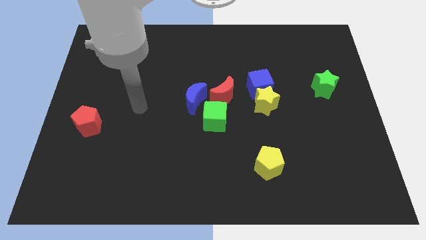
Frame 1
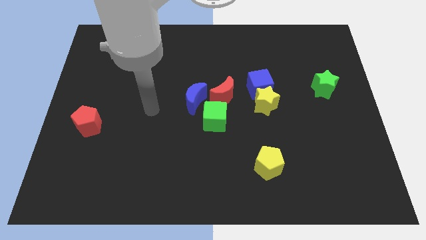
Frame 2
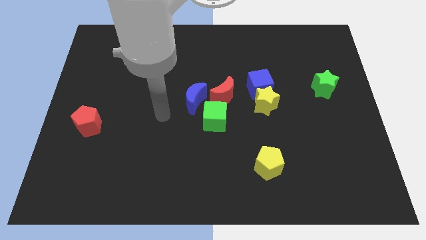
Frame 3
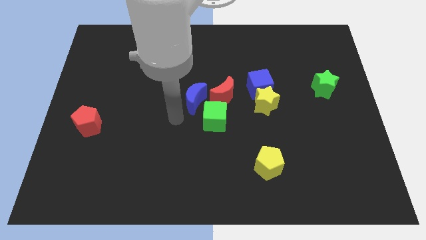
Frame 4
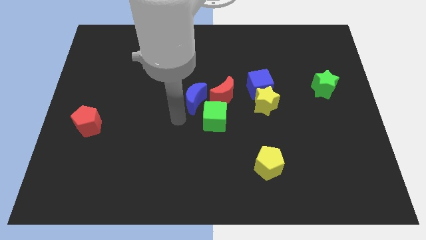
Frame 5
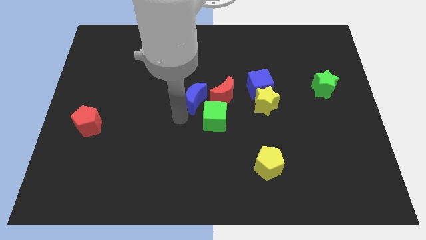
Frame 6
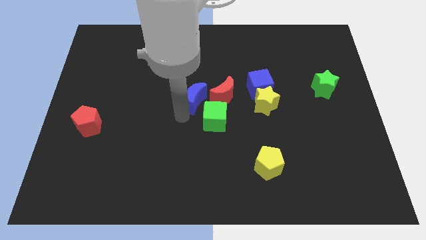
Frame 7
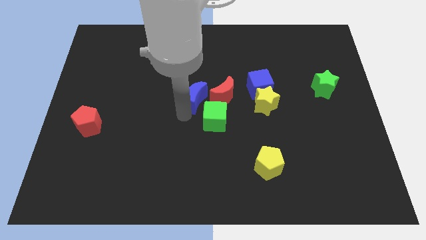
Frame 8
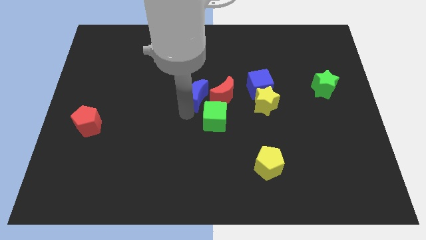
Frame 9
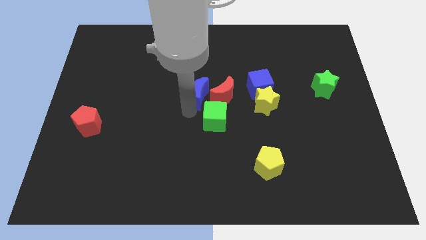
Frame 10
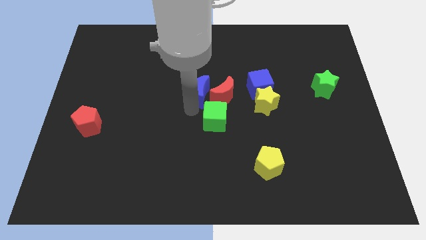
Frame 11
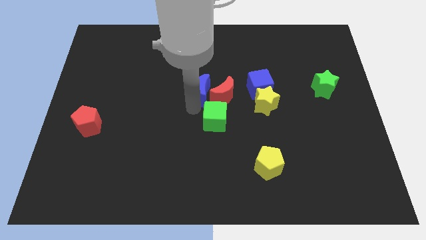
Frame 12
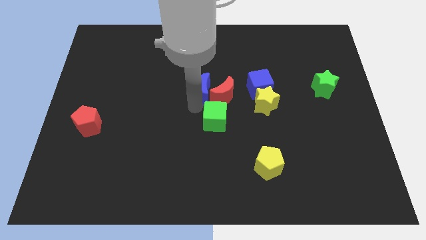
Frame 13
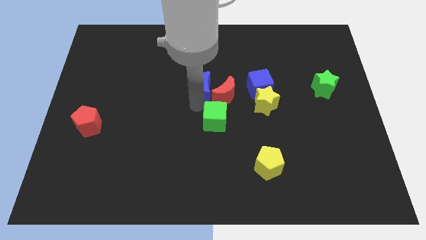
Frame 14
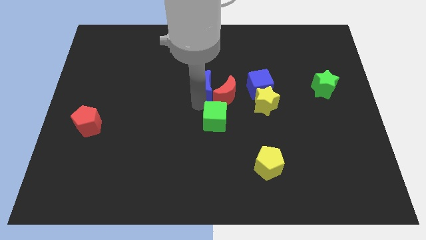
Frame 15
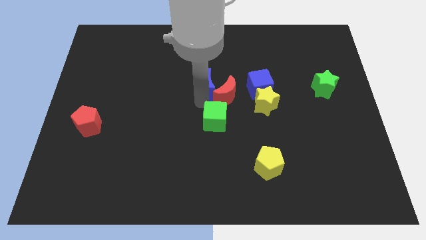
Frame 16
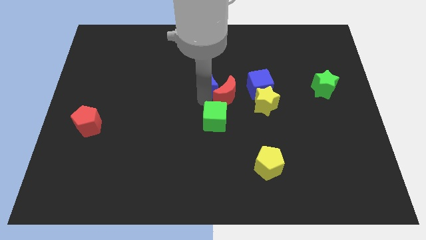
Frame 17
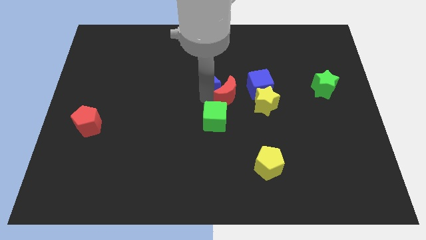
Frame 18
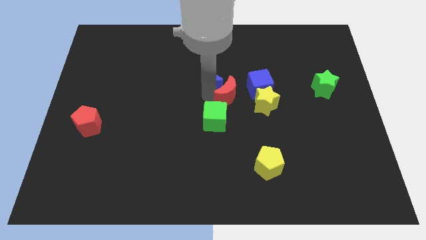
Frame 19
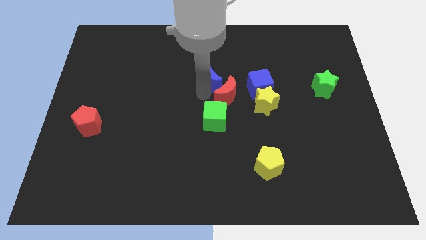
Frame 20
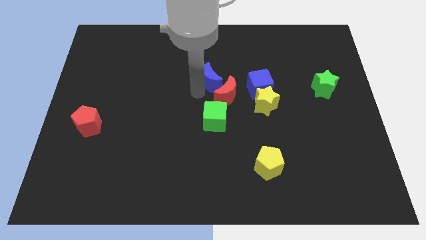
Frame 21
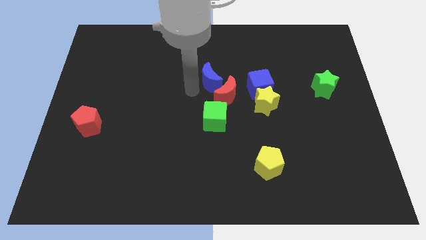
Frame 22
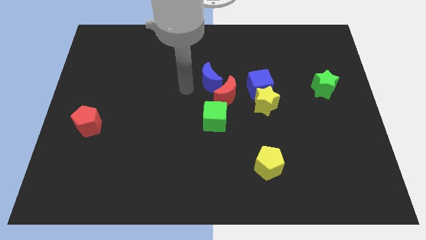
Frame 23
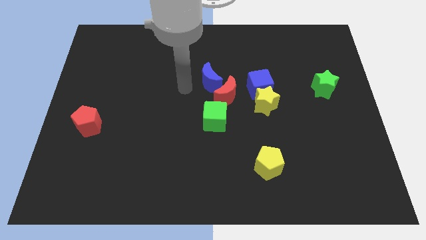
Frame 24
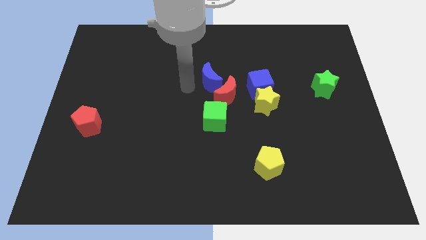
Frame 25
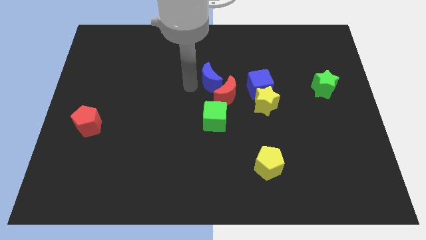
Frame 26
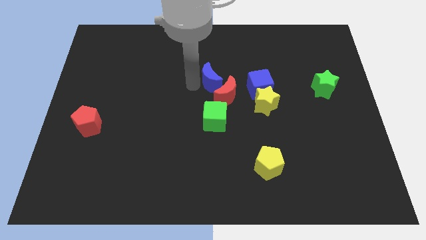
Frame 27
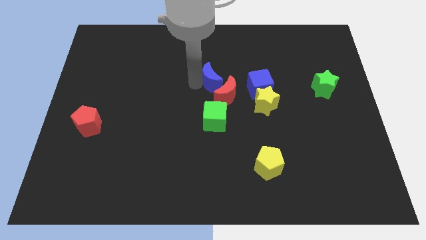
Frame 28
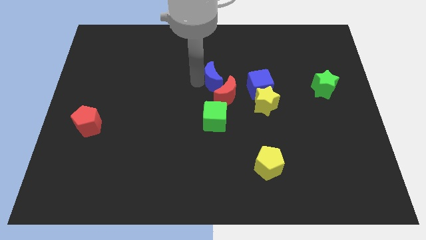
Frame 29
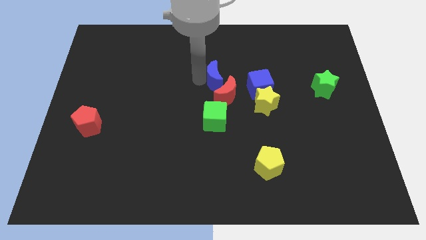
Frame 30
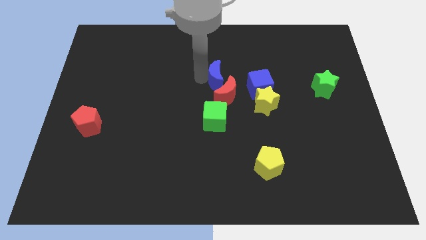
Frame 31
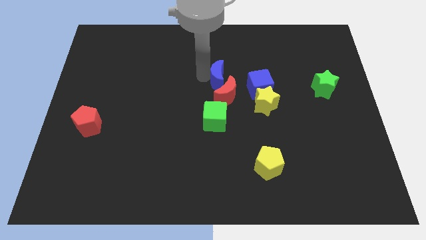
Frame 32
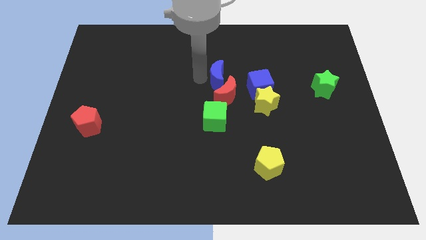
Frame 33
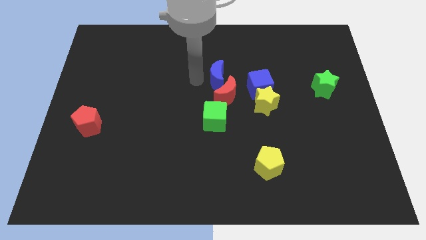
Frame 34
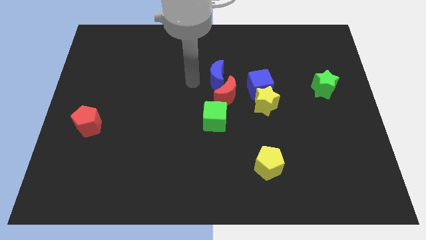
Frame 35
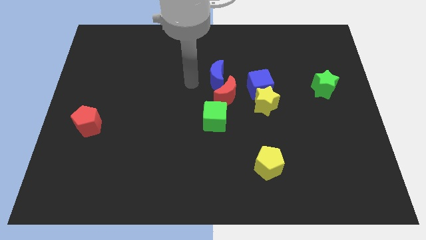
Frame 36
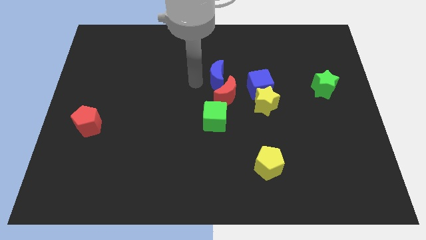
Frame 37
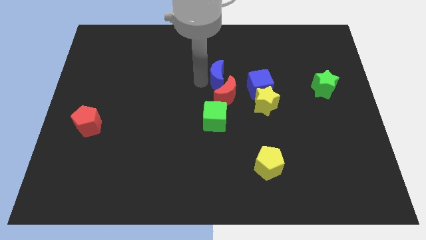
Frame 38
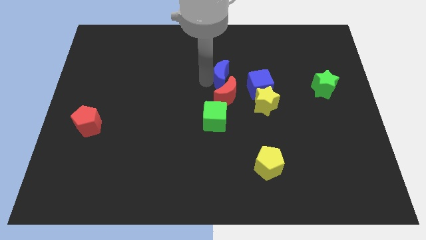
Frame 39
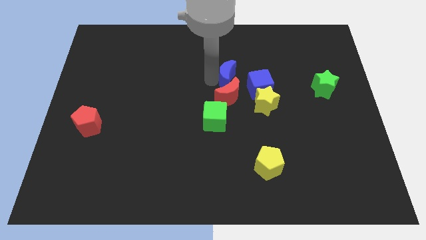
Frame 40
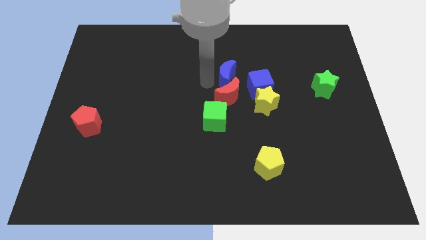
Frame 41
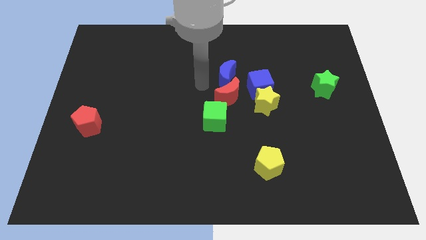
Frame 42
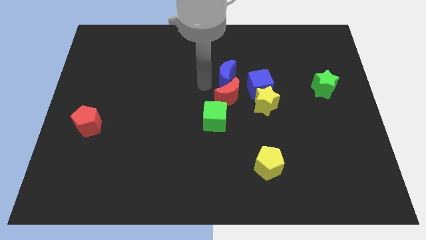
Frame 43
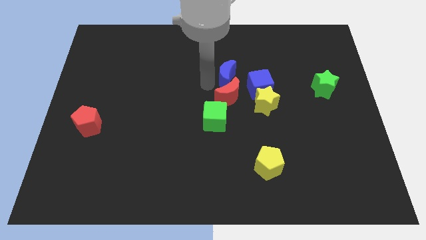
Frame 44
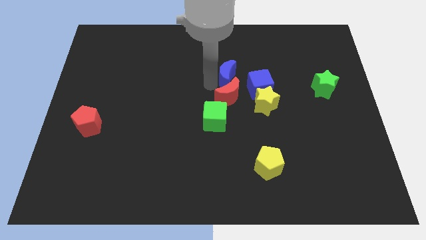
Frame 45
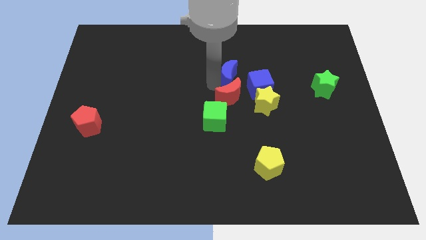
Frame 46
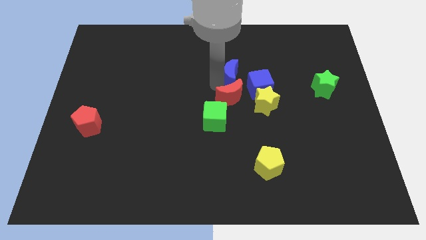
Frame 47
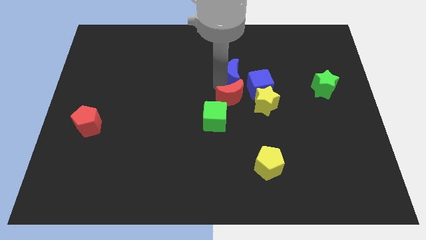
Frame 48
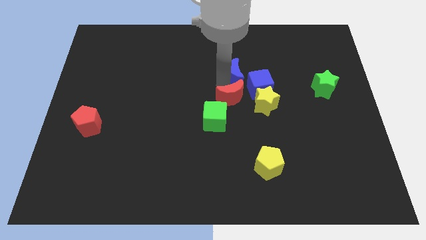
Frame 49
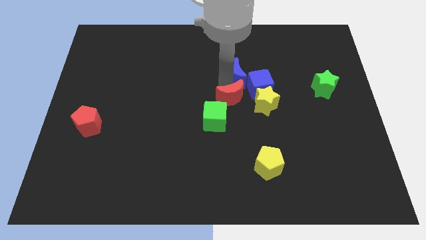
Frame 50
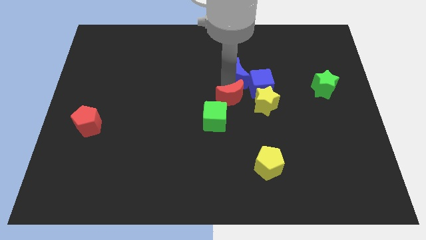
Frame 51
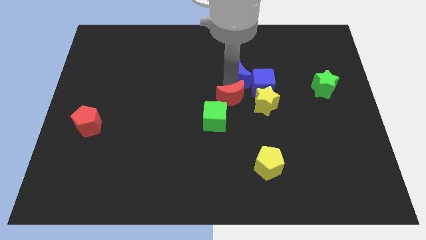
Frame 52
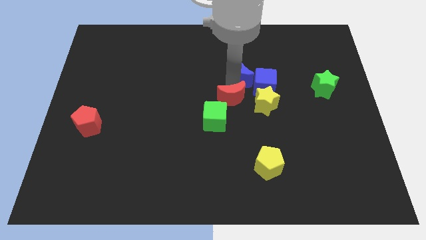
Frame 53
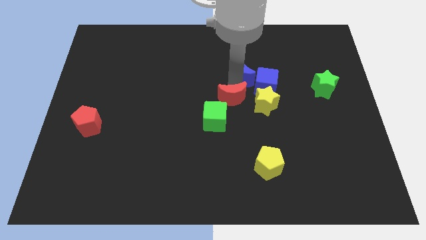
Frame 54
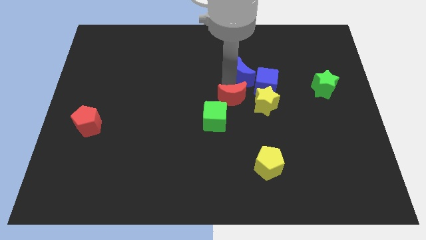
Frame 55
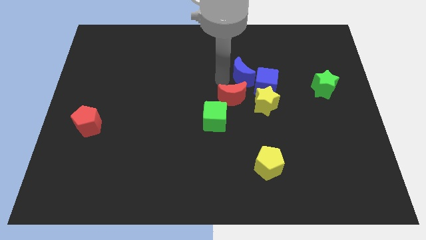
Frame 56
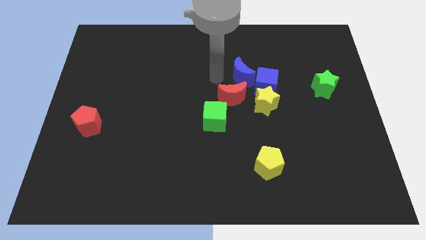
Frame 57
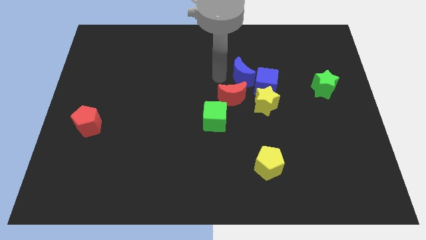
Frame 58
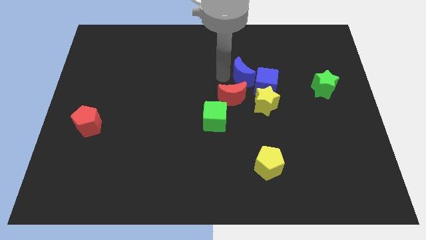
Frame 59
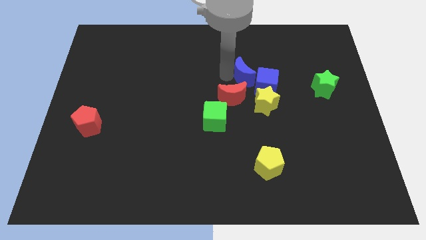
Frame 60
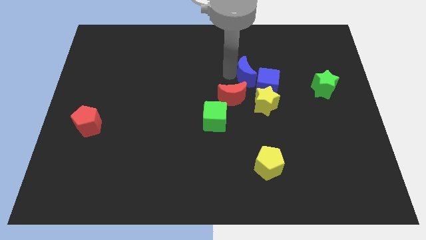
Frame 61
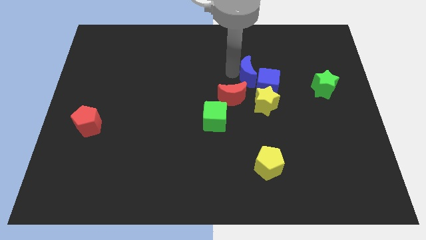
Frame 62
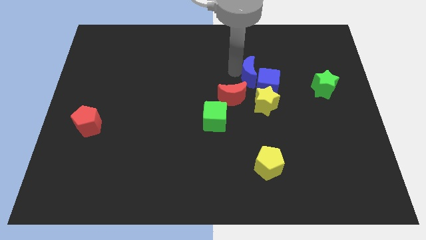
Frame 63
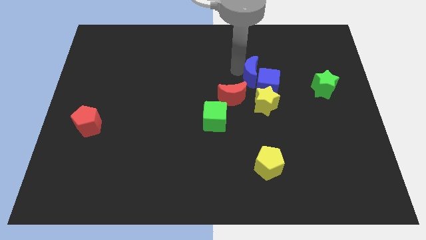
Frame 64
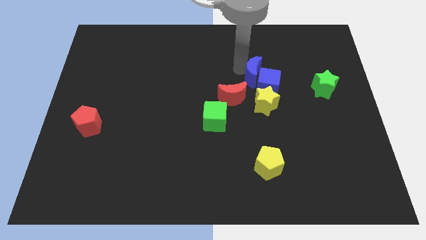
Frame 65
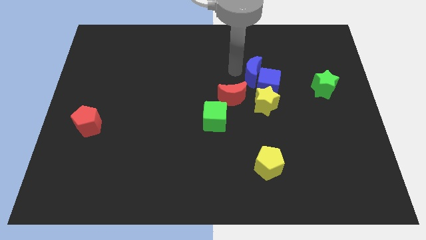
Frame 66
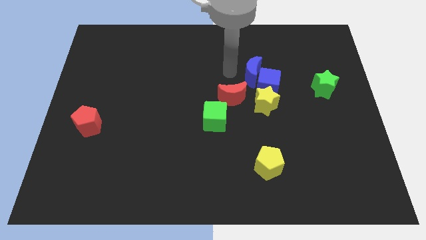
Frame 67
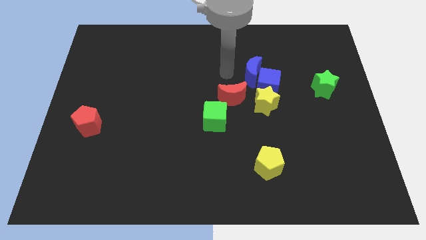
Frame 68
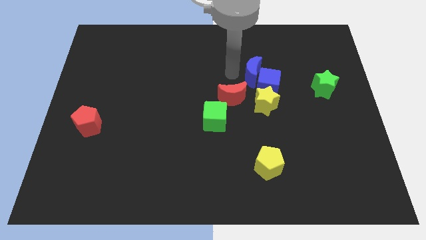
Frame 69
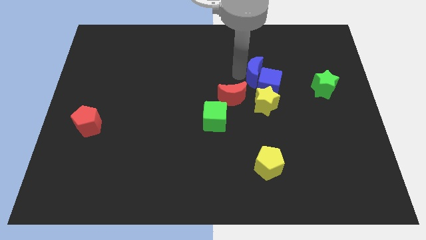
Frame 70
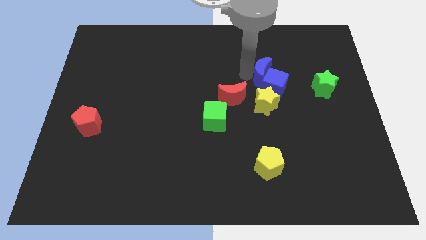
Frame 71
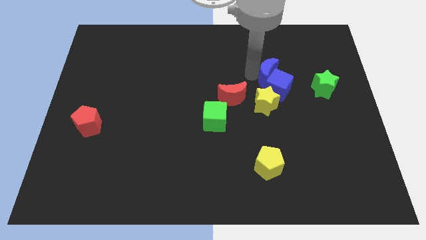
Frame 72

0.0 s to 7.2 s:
move the blue moon to the left side of the green star
